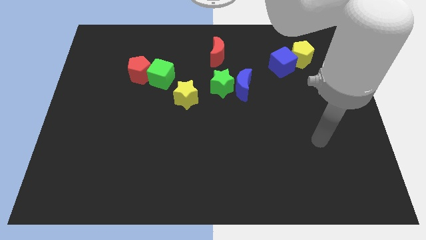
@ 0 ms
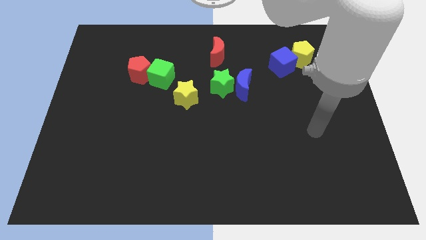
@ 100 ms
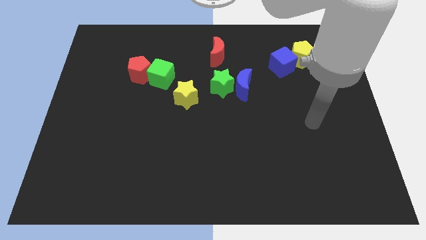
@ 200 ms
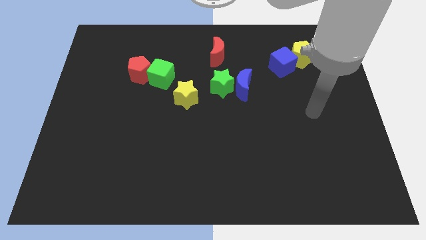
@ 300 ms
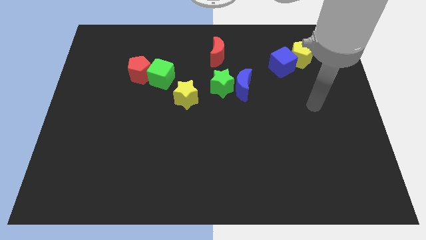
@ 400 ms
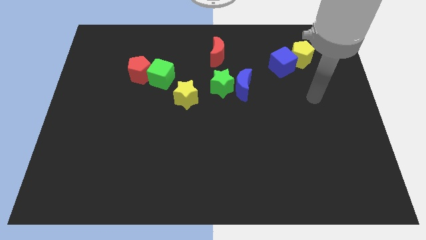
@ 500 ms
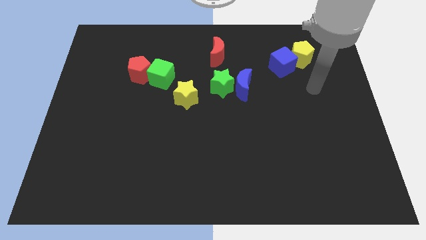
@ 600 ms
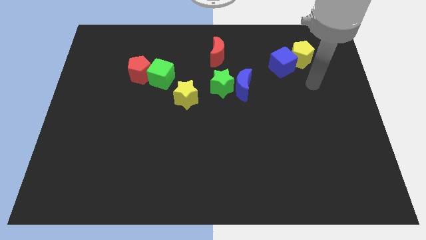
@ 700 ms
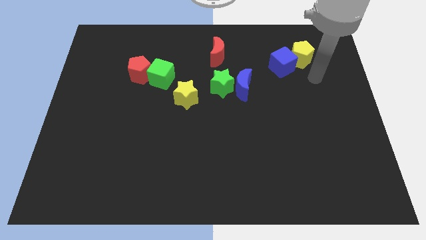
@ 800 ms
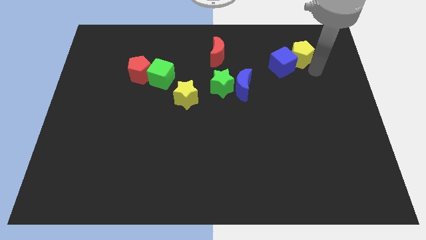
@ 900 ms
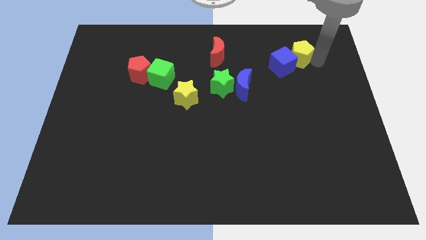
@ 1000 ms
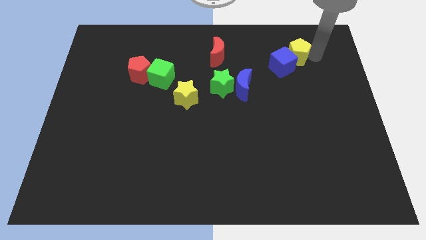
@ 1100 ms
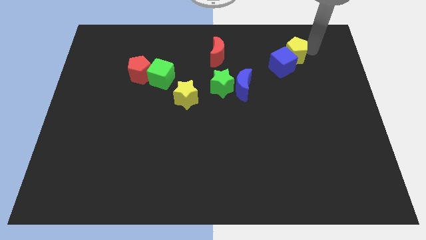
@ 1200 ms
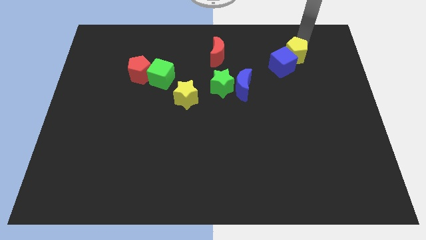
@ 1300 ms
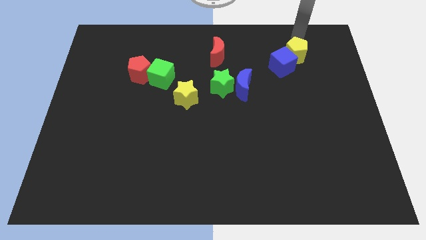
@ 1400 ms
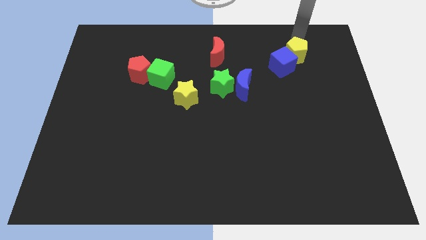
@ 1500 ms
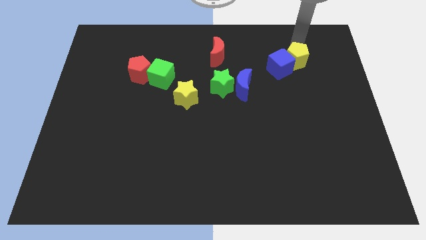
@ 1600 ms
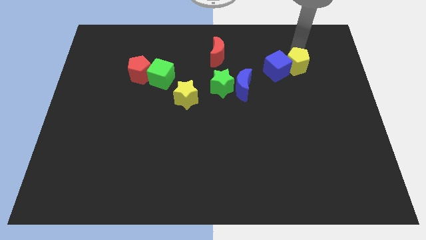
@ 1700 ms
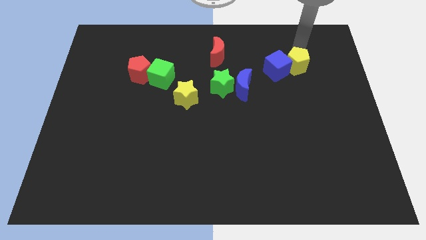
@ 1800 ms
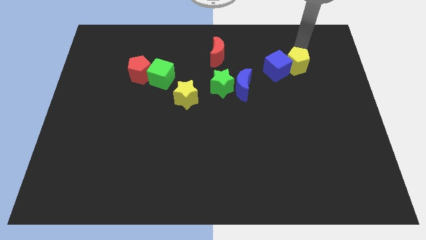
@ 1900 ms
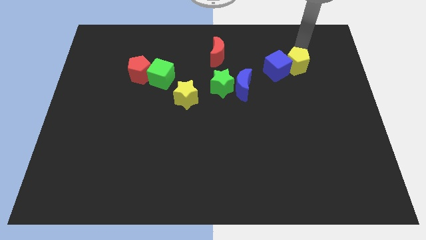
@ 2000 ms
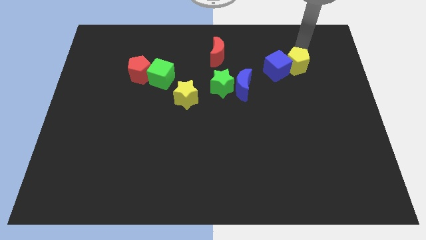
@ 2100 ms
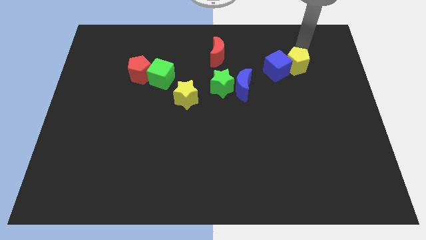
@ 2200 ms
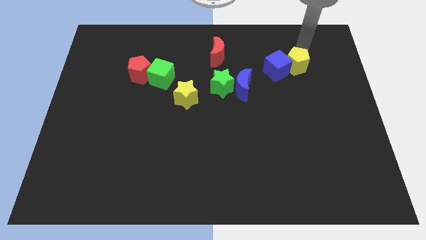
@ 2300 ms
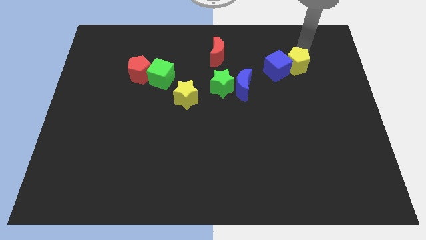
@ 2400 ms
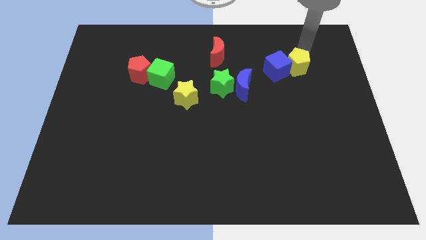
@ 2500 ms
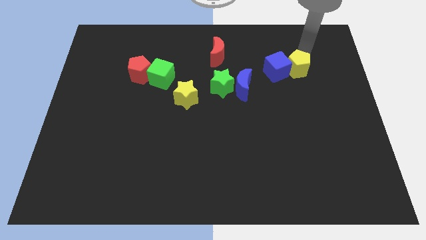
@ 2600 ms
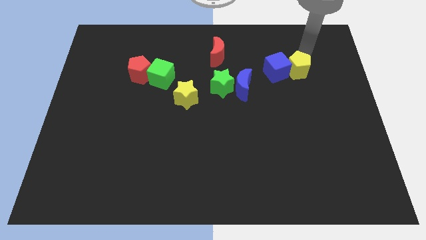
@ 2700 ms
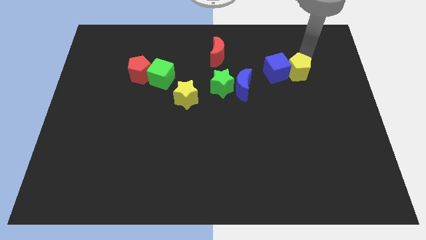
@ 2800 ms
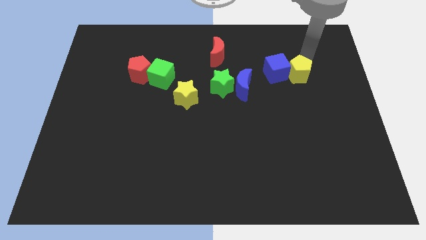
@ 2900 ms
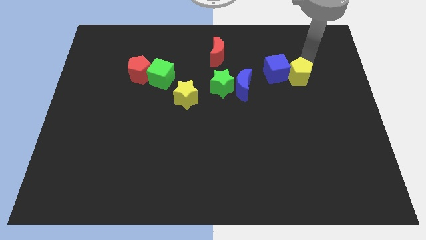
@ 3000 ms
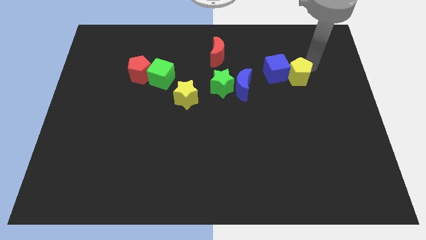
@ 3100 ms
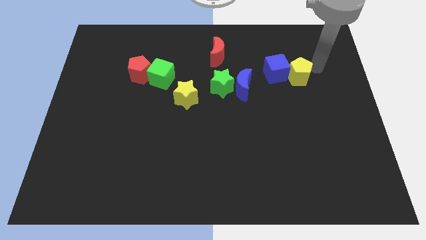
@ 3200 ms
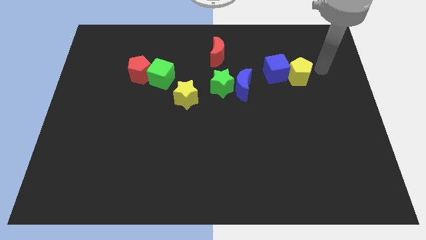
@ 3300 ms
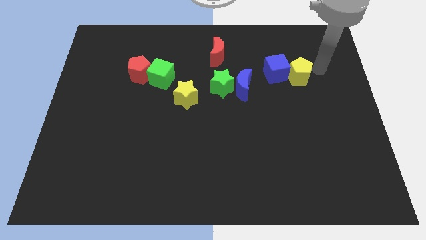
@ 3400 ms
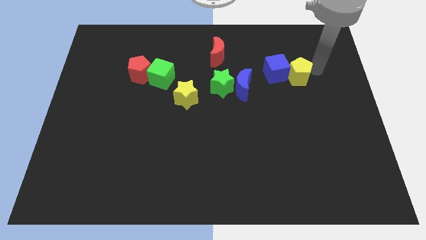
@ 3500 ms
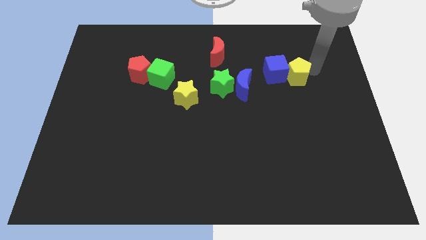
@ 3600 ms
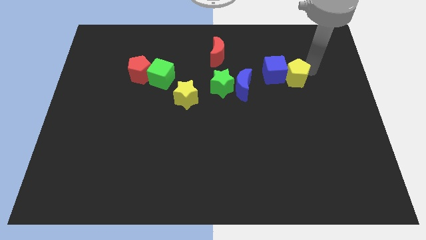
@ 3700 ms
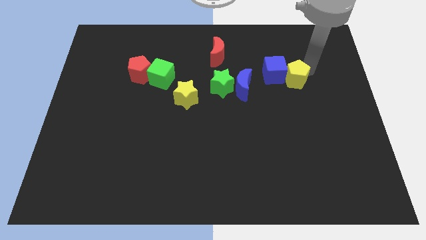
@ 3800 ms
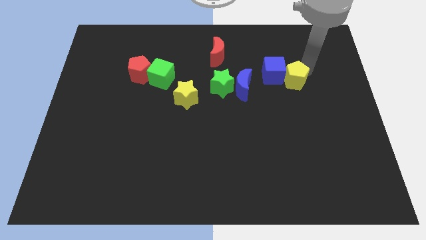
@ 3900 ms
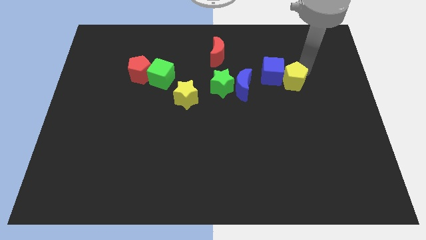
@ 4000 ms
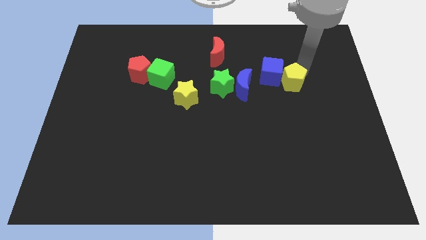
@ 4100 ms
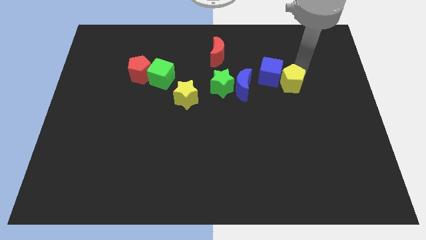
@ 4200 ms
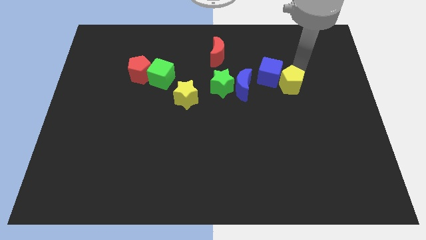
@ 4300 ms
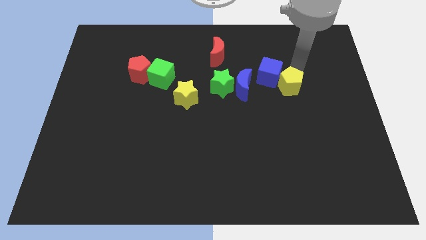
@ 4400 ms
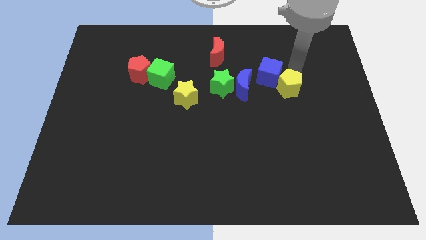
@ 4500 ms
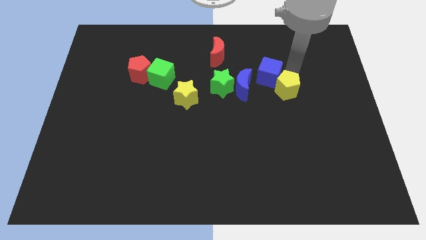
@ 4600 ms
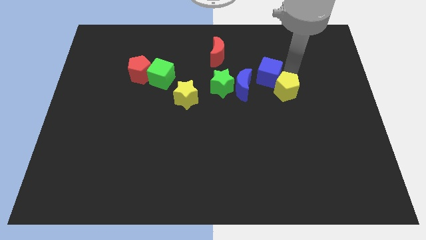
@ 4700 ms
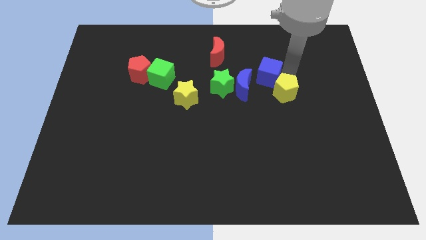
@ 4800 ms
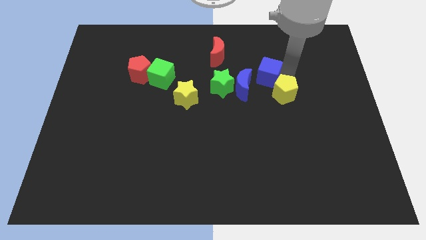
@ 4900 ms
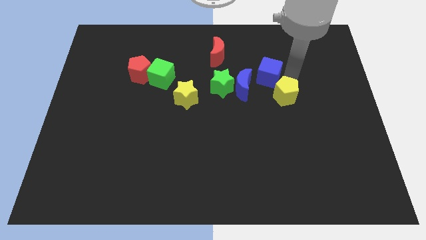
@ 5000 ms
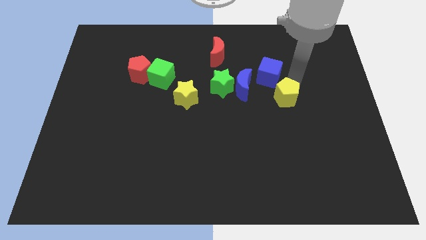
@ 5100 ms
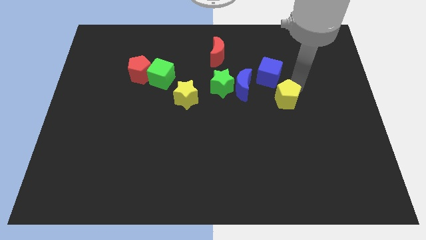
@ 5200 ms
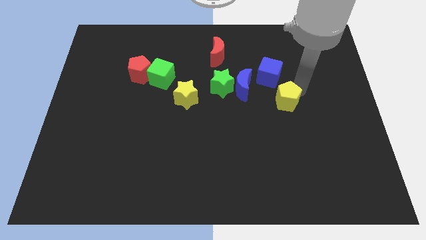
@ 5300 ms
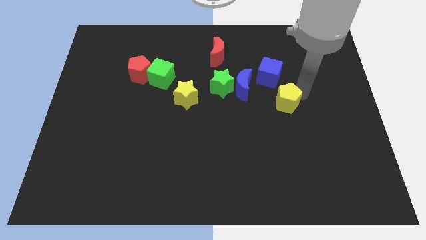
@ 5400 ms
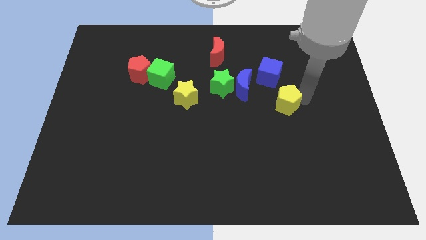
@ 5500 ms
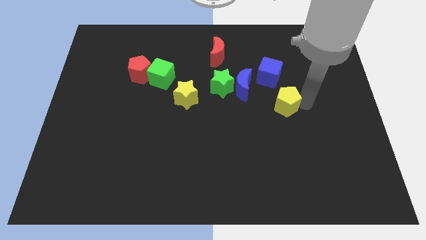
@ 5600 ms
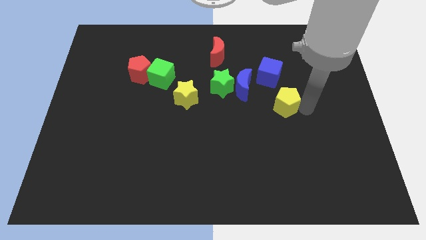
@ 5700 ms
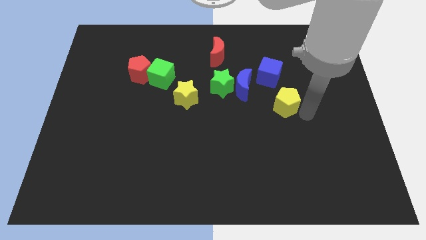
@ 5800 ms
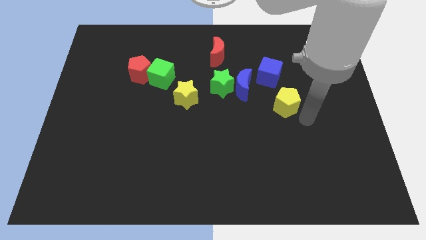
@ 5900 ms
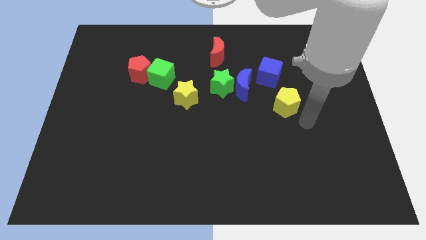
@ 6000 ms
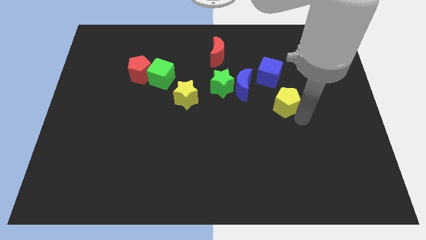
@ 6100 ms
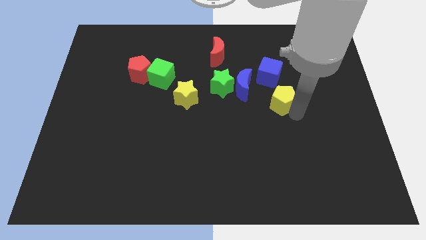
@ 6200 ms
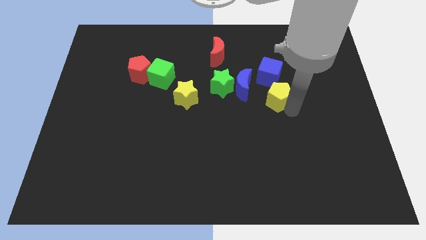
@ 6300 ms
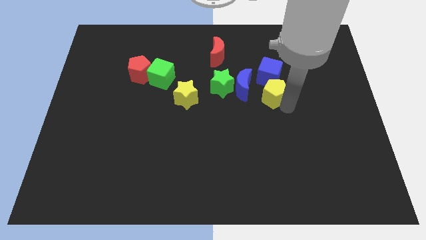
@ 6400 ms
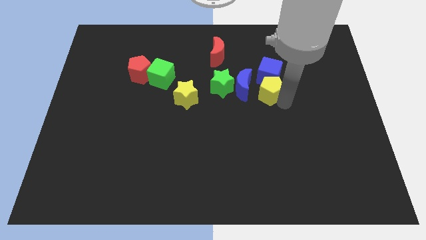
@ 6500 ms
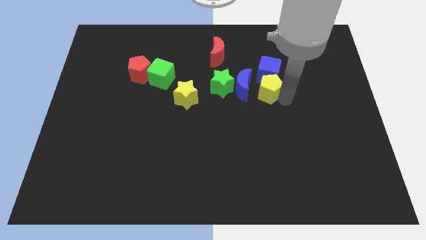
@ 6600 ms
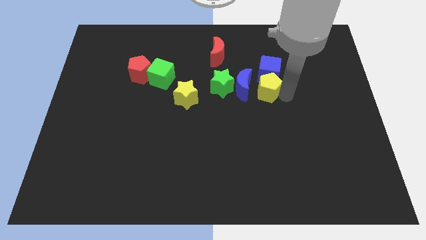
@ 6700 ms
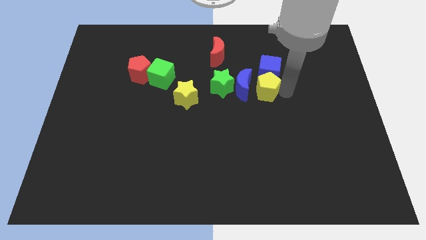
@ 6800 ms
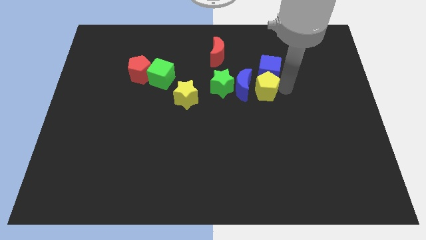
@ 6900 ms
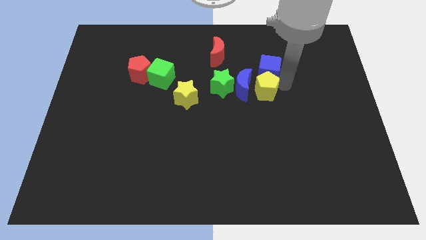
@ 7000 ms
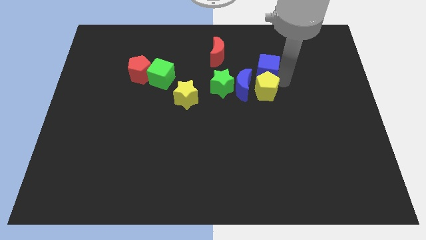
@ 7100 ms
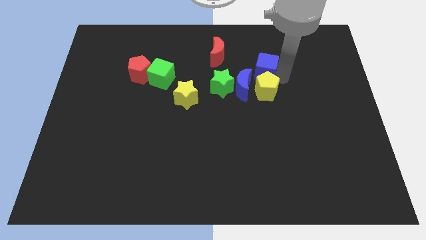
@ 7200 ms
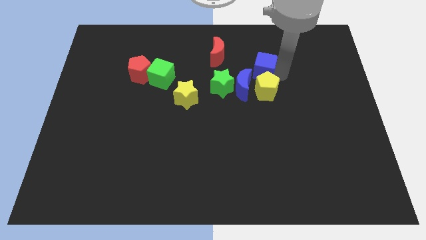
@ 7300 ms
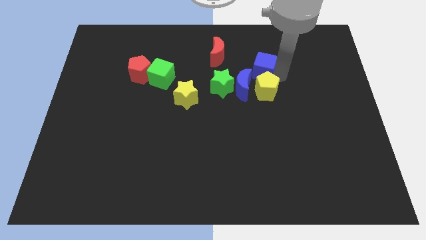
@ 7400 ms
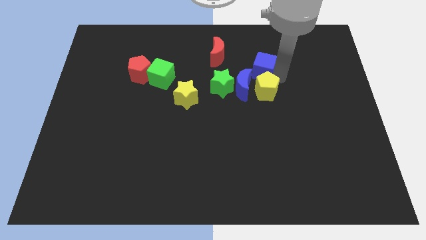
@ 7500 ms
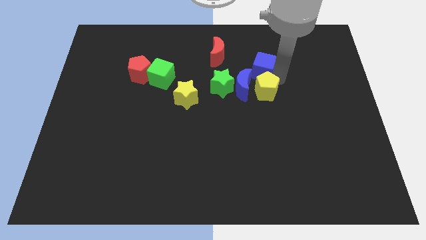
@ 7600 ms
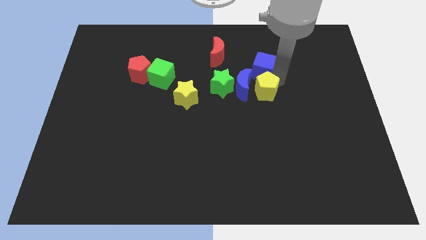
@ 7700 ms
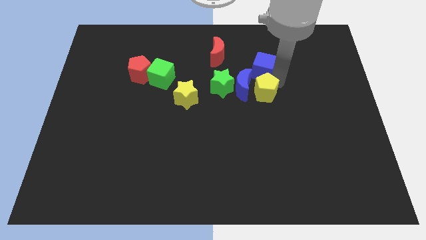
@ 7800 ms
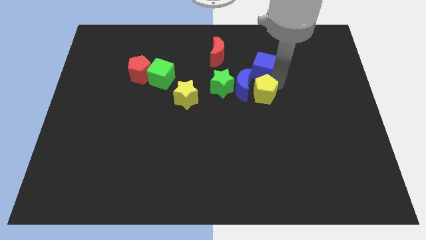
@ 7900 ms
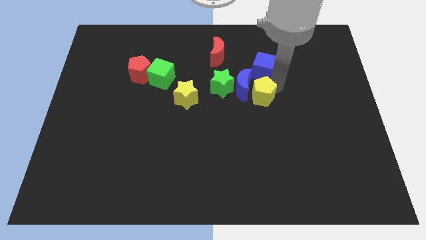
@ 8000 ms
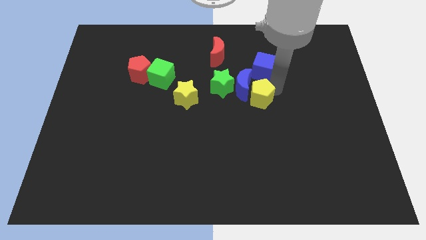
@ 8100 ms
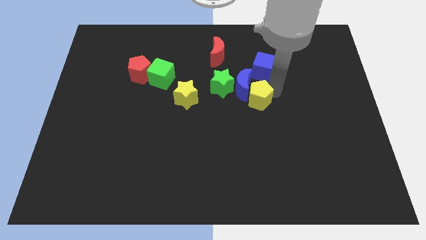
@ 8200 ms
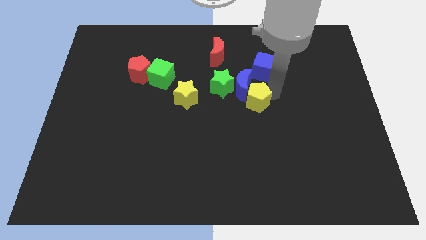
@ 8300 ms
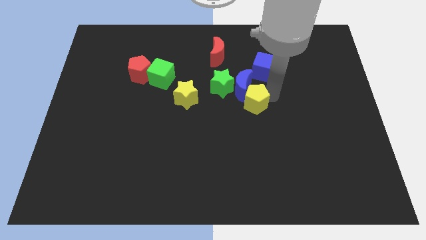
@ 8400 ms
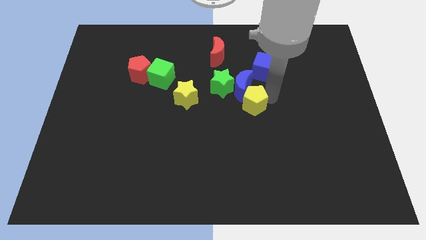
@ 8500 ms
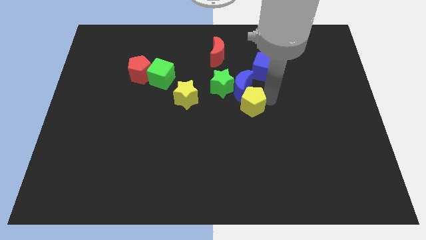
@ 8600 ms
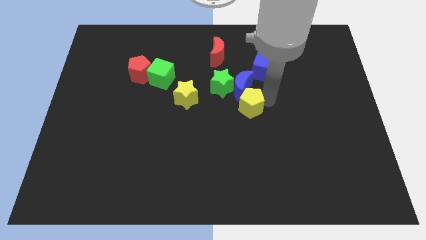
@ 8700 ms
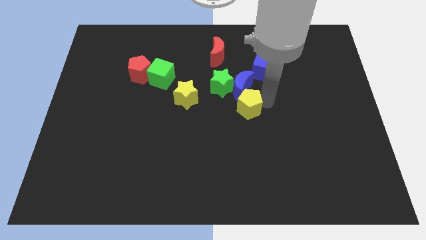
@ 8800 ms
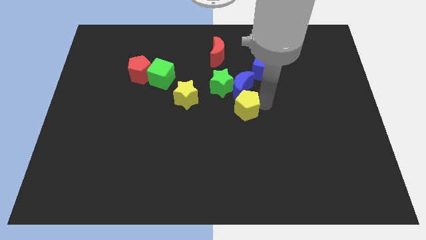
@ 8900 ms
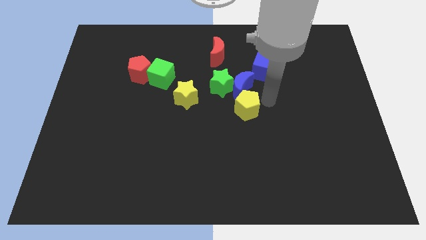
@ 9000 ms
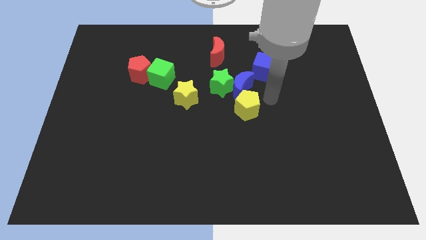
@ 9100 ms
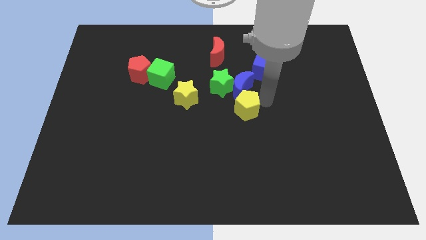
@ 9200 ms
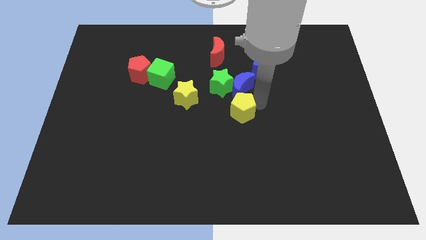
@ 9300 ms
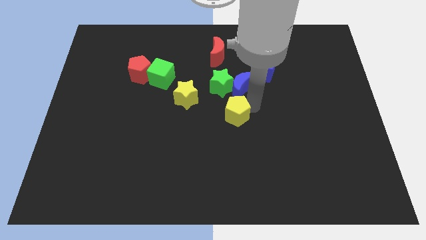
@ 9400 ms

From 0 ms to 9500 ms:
put the yellow pentagon to the bottom of the green star
